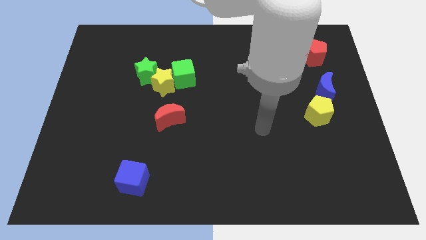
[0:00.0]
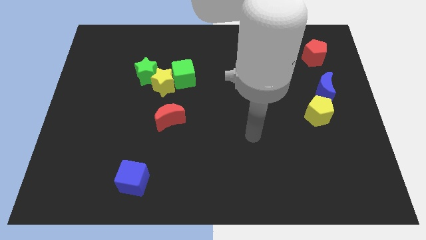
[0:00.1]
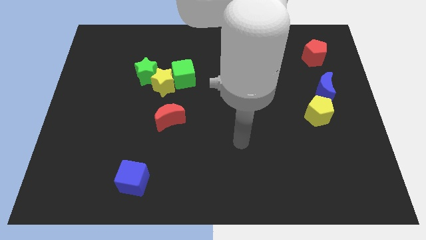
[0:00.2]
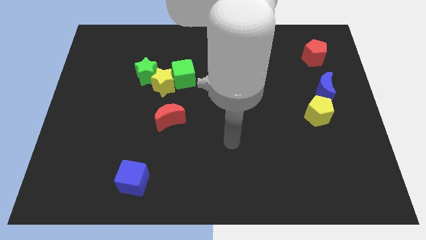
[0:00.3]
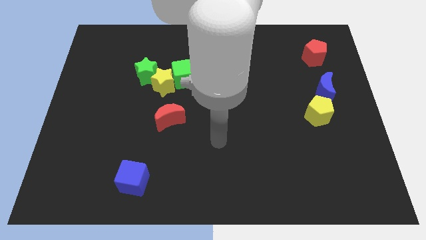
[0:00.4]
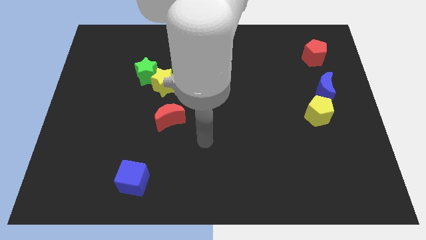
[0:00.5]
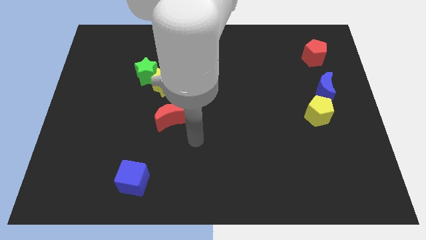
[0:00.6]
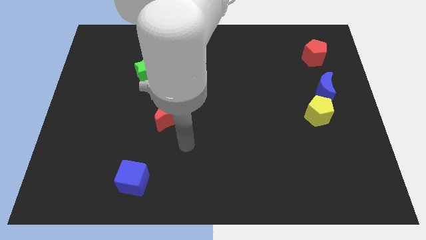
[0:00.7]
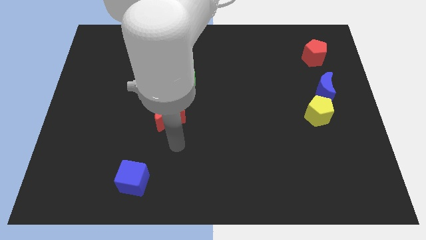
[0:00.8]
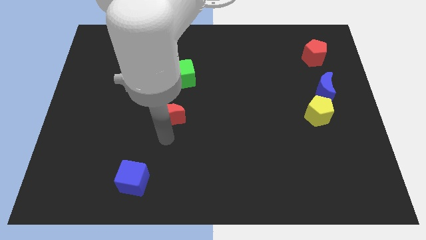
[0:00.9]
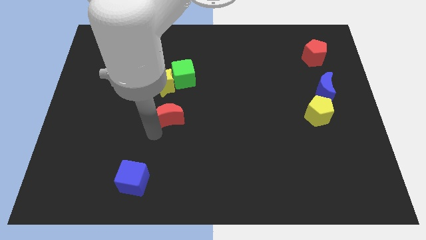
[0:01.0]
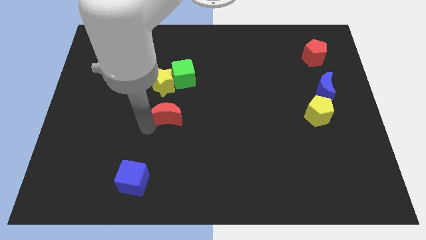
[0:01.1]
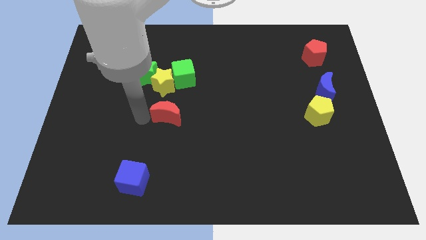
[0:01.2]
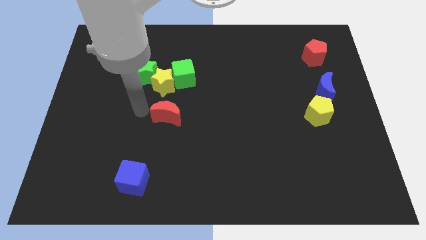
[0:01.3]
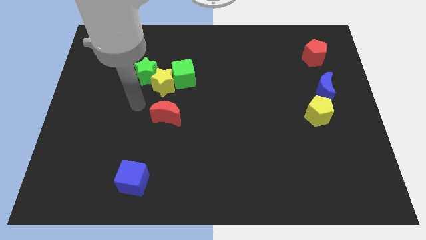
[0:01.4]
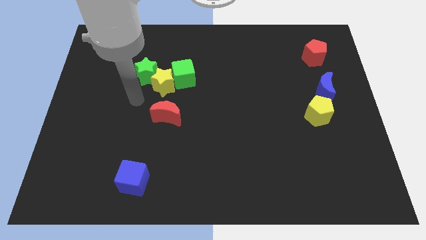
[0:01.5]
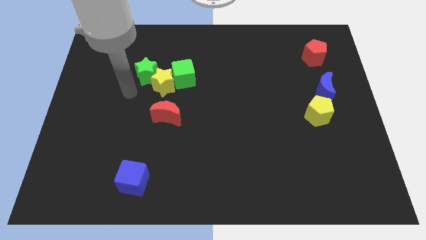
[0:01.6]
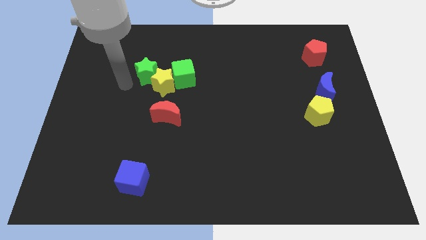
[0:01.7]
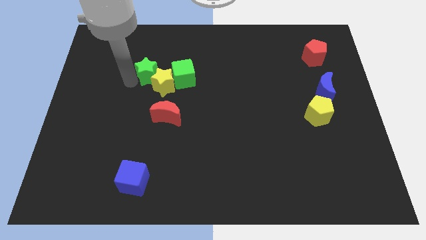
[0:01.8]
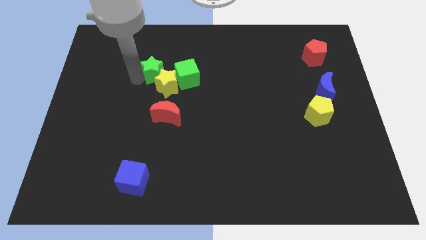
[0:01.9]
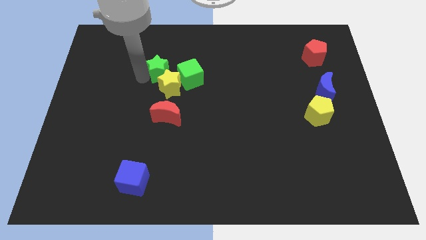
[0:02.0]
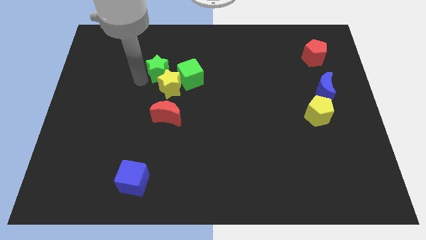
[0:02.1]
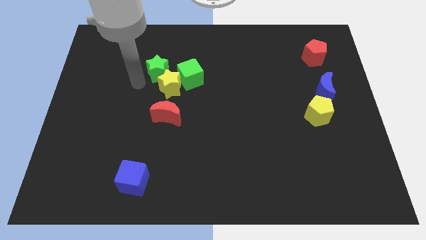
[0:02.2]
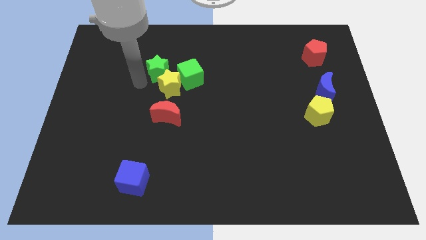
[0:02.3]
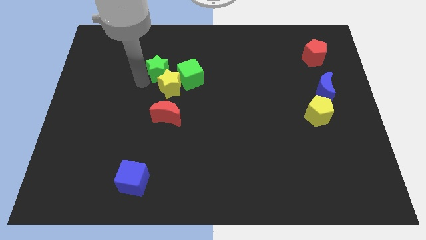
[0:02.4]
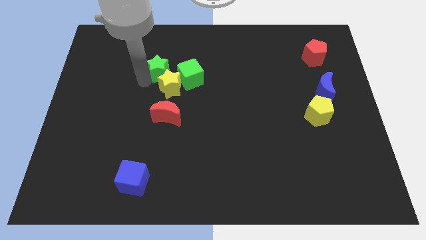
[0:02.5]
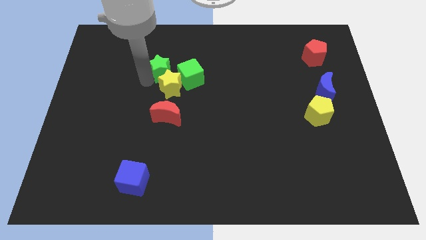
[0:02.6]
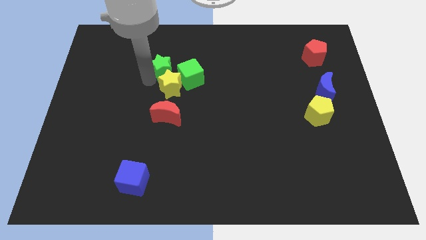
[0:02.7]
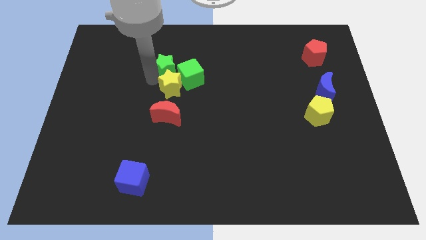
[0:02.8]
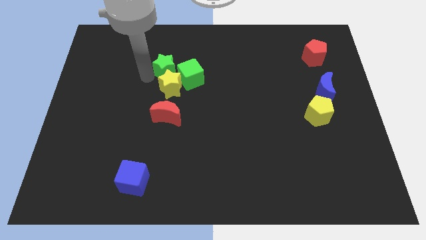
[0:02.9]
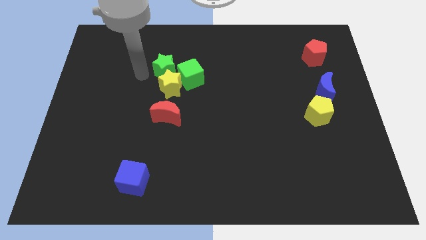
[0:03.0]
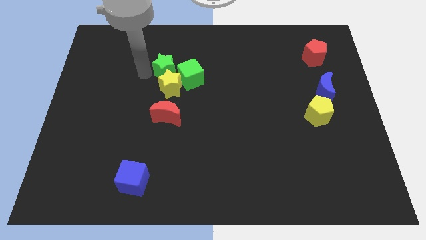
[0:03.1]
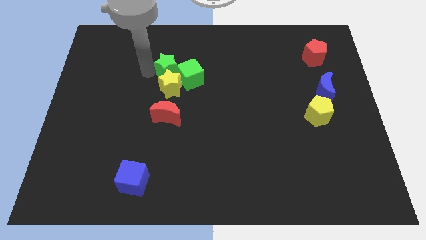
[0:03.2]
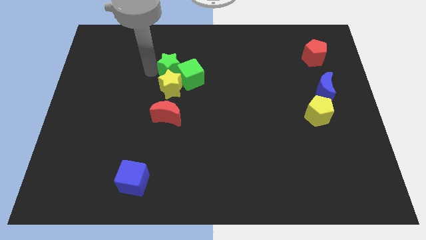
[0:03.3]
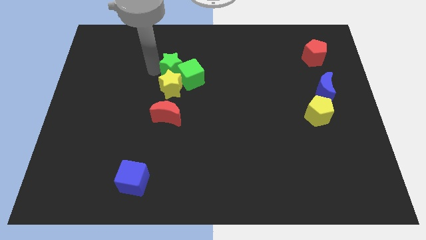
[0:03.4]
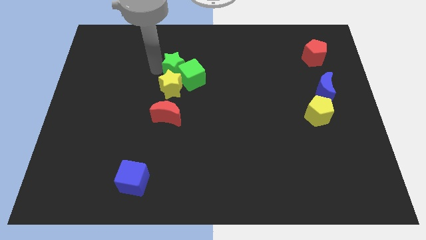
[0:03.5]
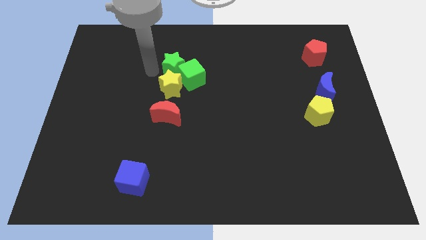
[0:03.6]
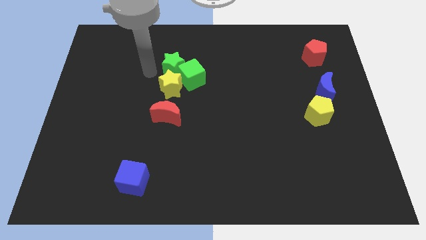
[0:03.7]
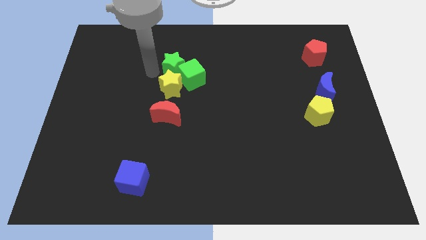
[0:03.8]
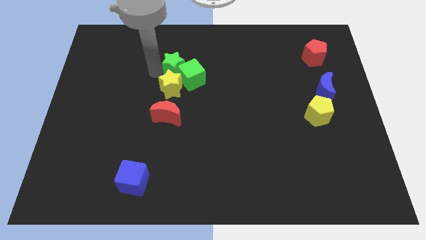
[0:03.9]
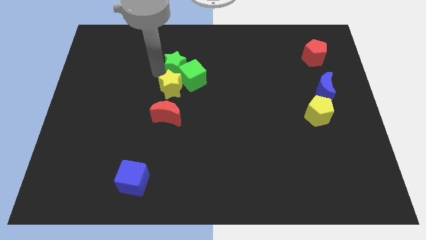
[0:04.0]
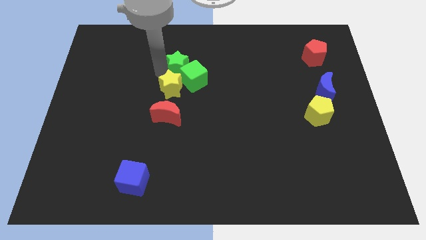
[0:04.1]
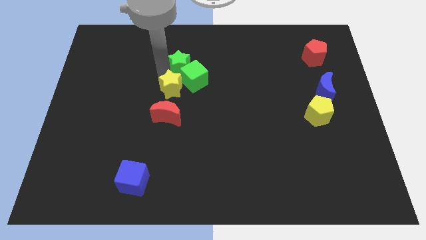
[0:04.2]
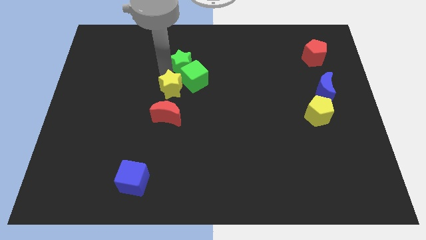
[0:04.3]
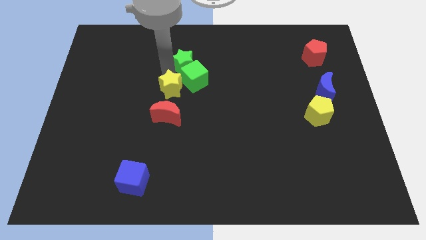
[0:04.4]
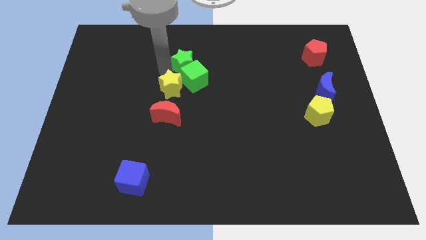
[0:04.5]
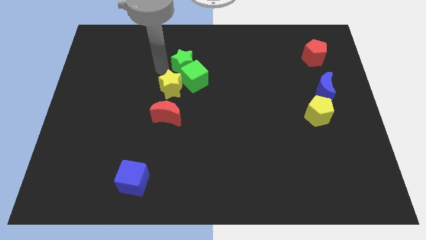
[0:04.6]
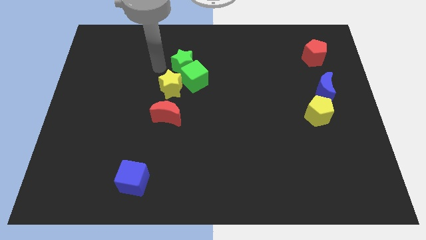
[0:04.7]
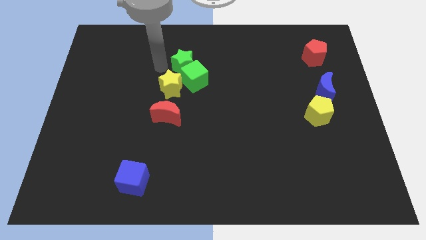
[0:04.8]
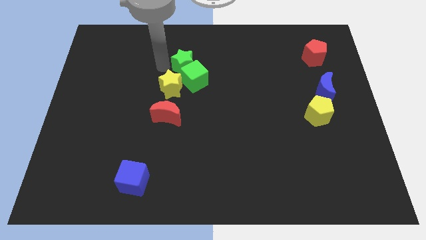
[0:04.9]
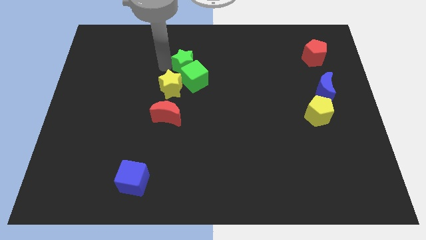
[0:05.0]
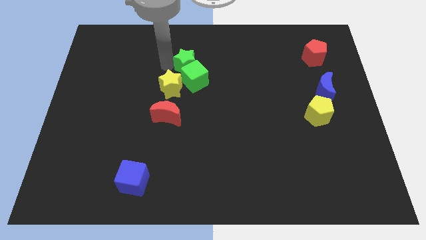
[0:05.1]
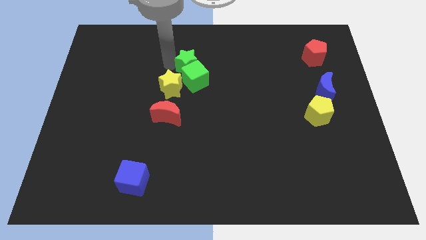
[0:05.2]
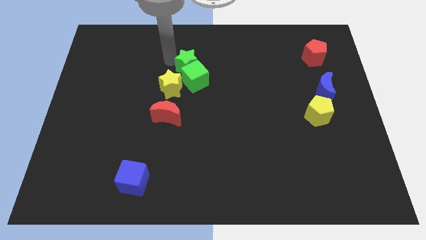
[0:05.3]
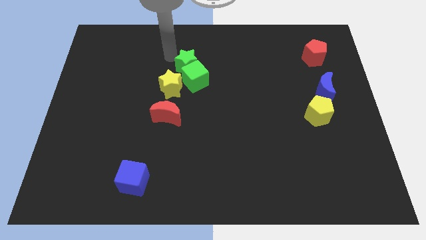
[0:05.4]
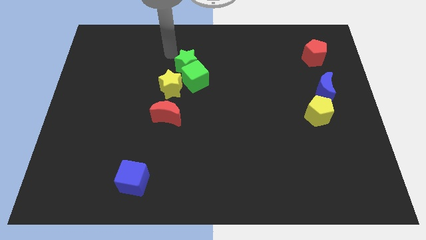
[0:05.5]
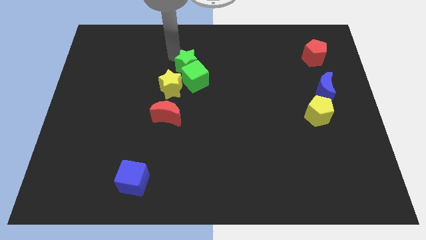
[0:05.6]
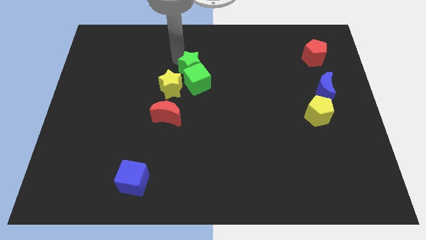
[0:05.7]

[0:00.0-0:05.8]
slide the green star to the center

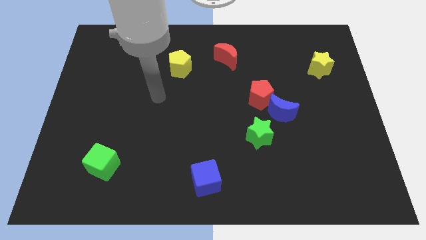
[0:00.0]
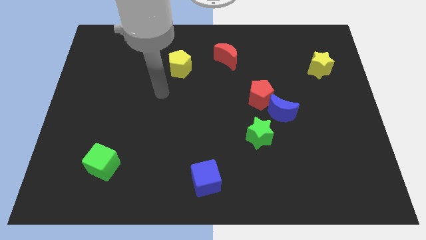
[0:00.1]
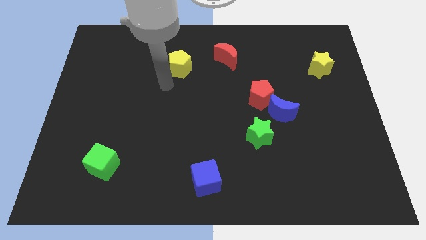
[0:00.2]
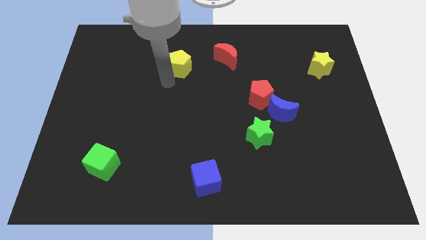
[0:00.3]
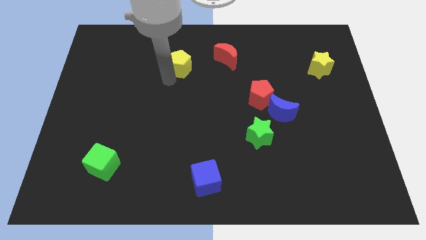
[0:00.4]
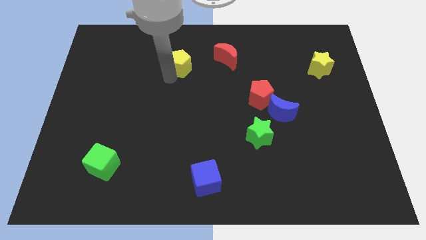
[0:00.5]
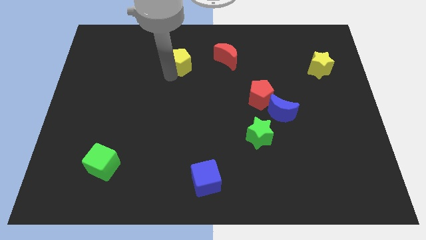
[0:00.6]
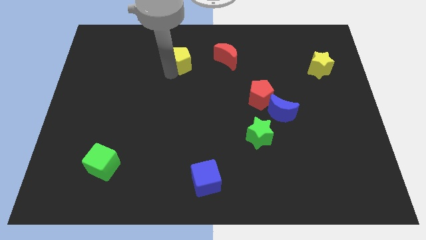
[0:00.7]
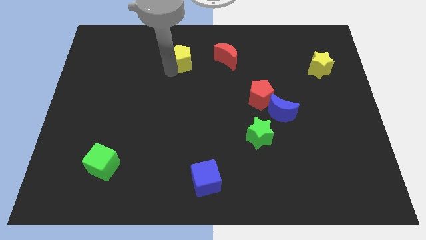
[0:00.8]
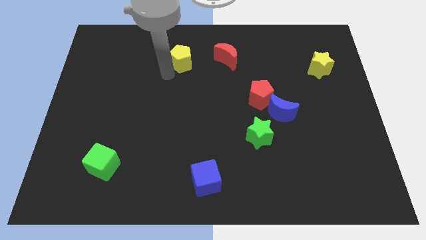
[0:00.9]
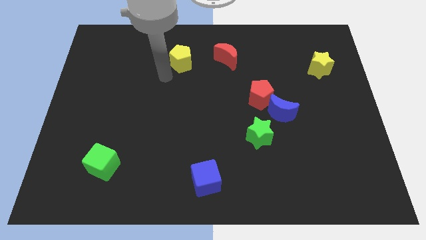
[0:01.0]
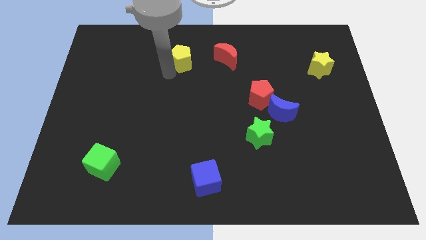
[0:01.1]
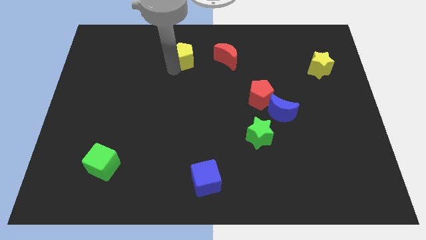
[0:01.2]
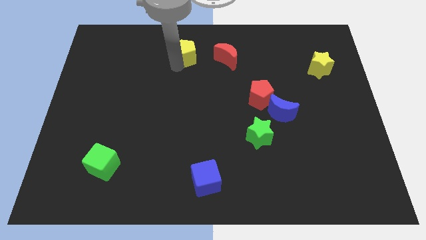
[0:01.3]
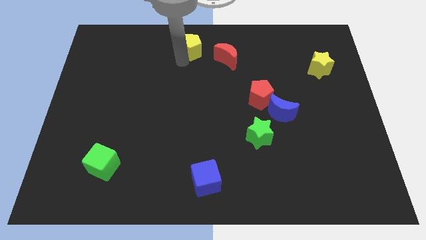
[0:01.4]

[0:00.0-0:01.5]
move the yellow pentagon to the top side
